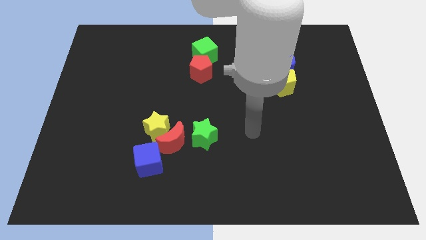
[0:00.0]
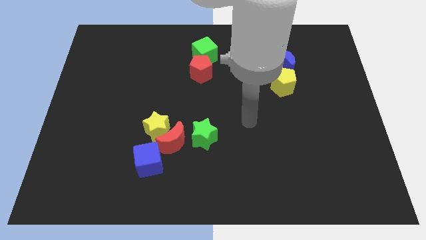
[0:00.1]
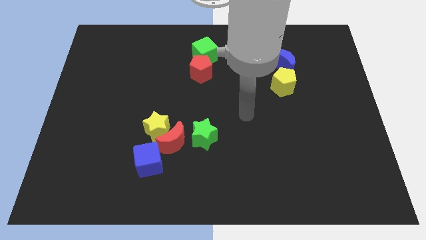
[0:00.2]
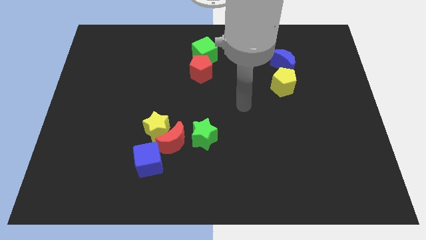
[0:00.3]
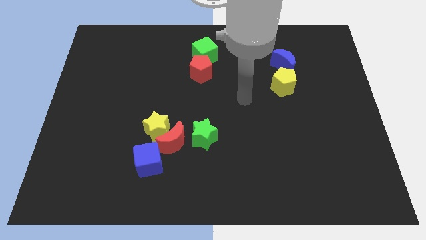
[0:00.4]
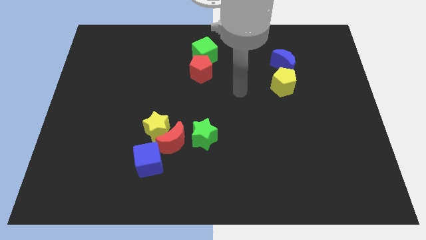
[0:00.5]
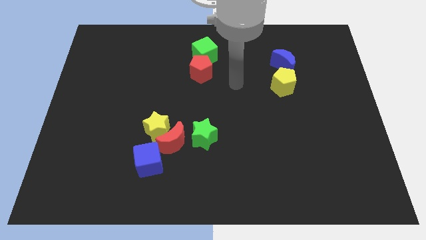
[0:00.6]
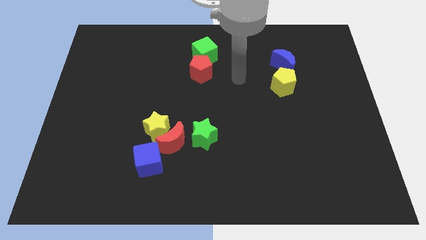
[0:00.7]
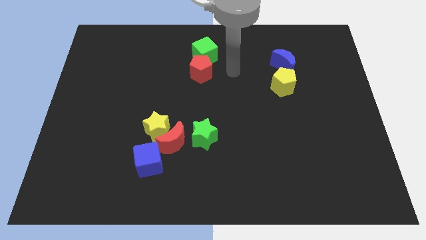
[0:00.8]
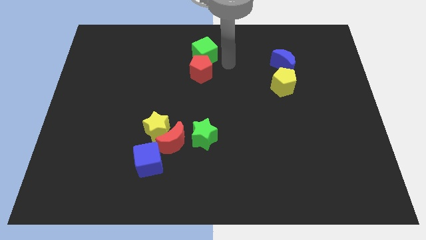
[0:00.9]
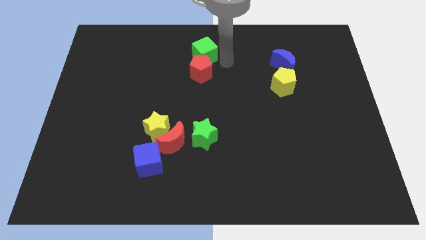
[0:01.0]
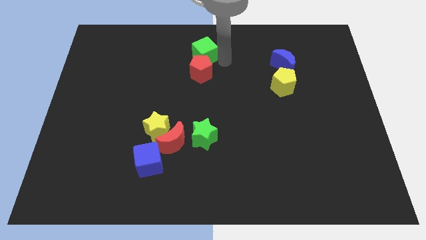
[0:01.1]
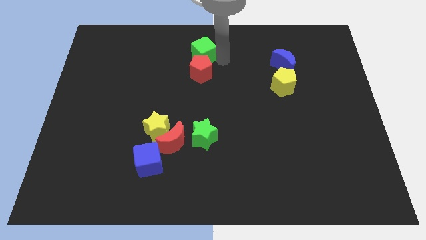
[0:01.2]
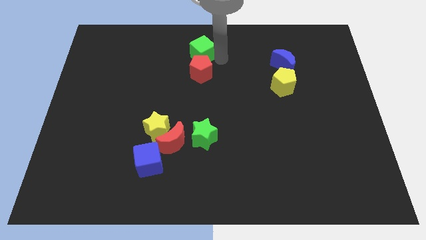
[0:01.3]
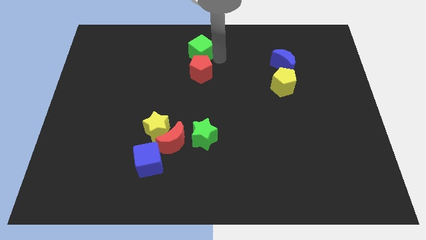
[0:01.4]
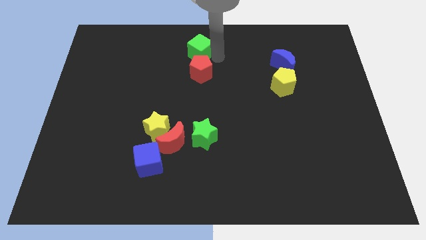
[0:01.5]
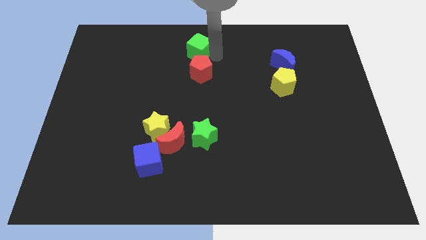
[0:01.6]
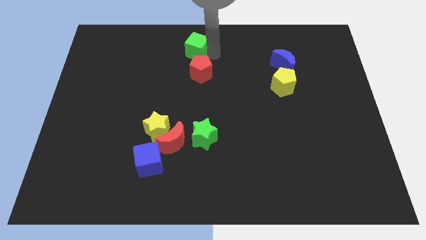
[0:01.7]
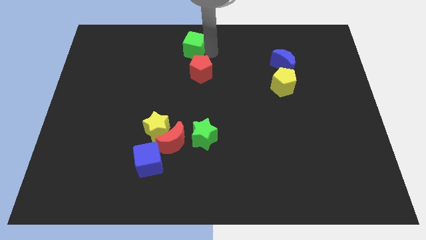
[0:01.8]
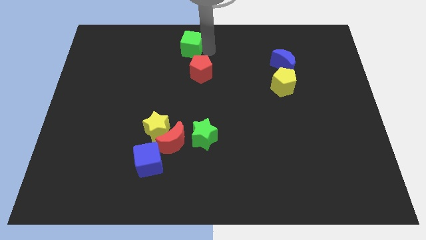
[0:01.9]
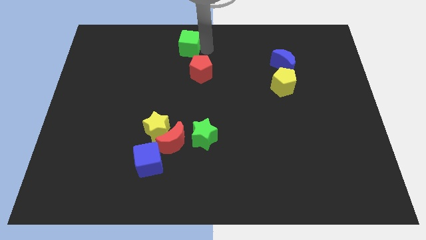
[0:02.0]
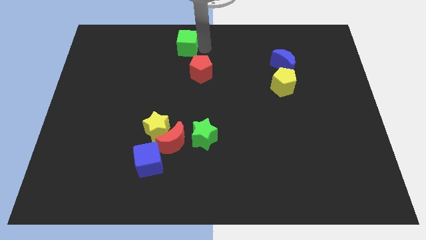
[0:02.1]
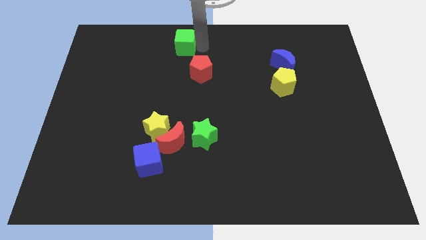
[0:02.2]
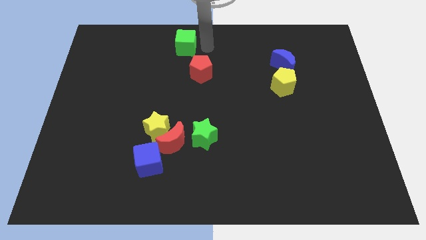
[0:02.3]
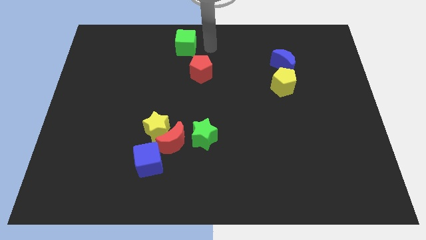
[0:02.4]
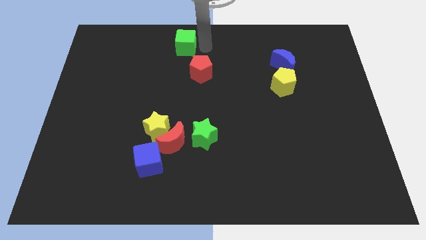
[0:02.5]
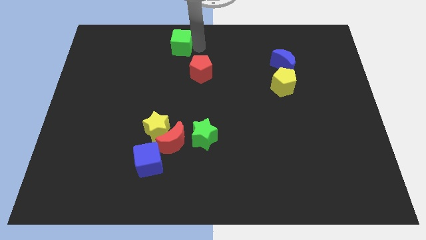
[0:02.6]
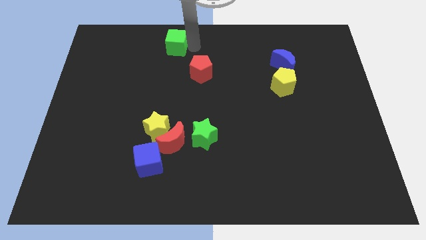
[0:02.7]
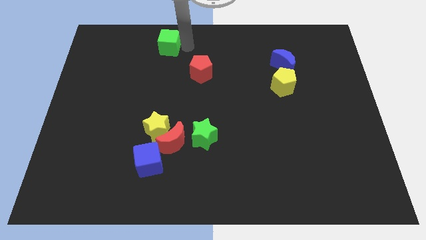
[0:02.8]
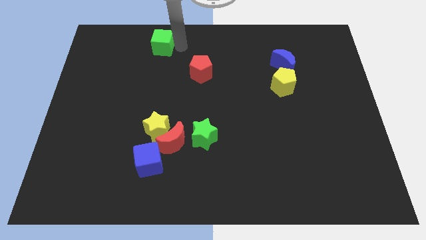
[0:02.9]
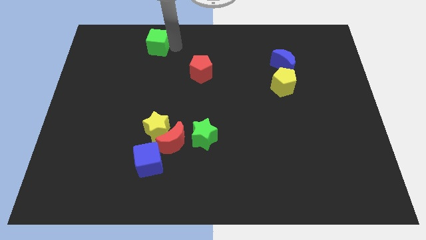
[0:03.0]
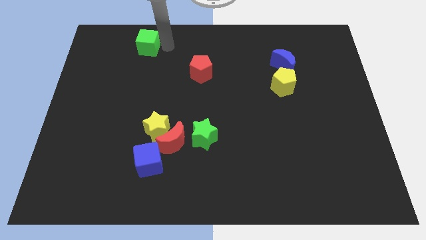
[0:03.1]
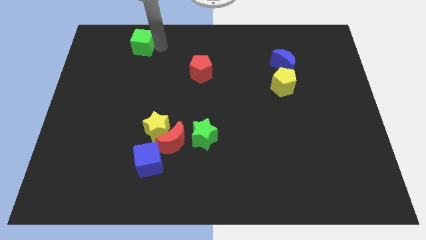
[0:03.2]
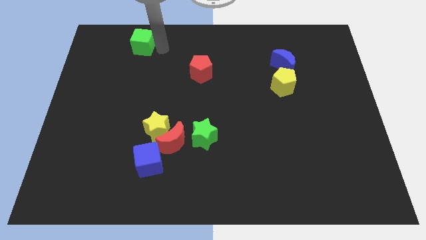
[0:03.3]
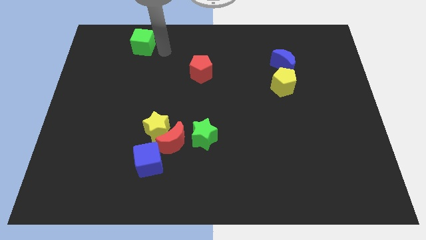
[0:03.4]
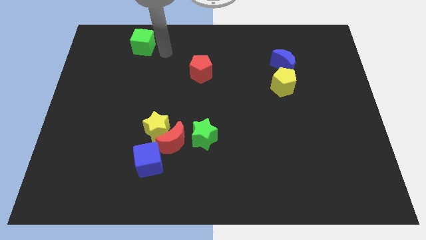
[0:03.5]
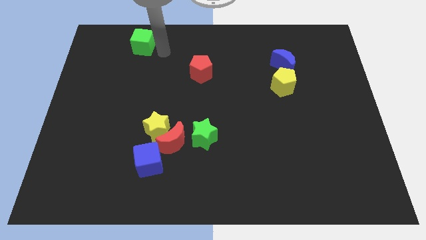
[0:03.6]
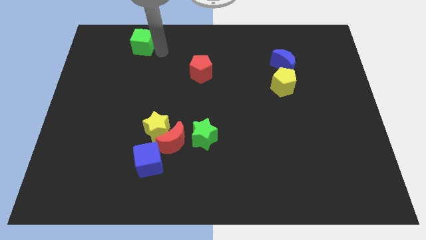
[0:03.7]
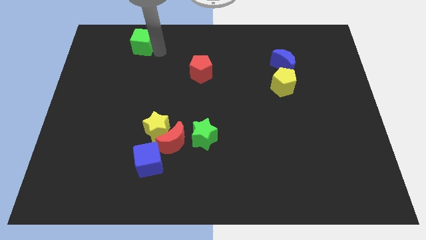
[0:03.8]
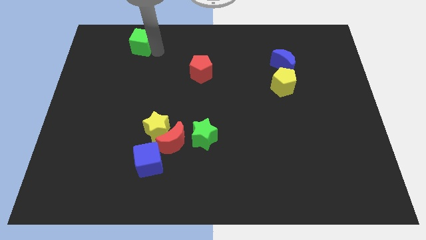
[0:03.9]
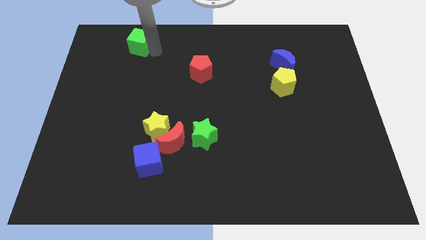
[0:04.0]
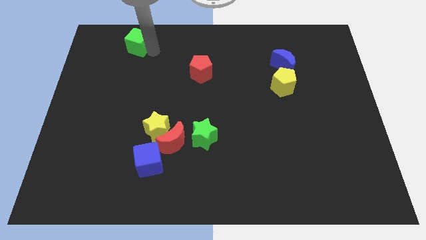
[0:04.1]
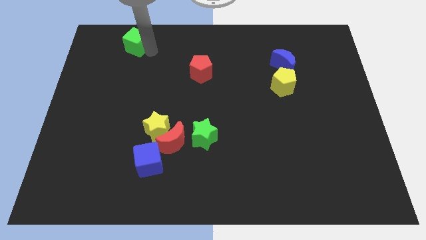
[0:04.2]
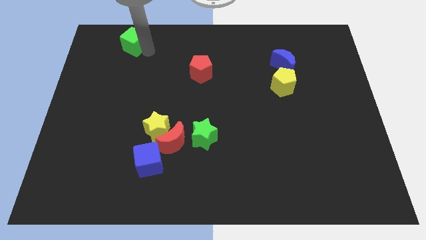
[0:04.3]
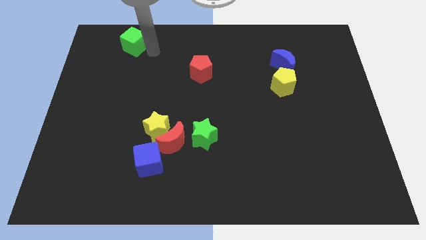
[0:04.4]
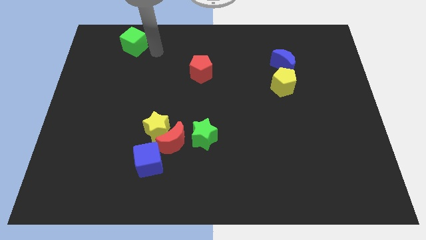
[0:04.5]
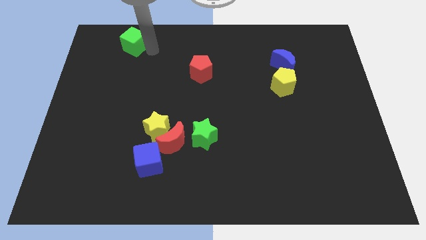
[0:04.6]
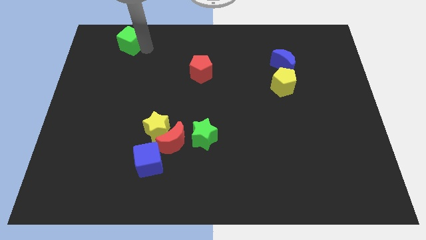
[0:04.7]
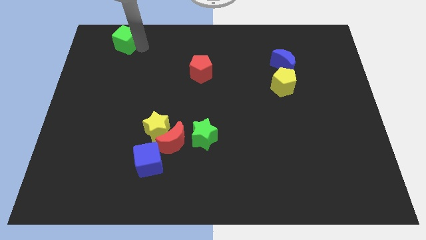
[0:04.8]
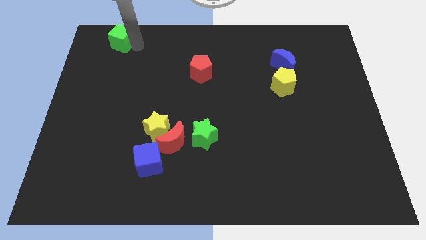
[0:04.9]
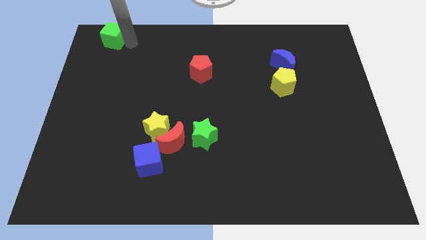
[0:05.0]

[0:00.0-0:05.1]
move the green cube to the top left corner

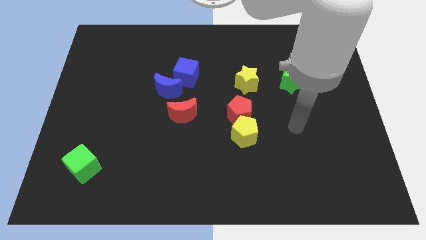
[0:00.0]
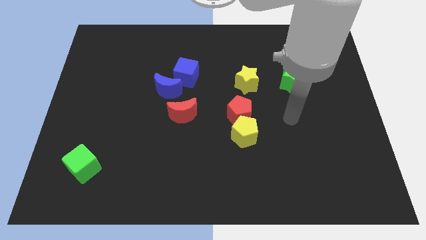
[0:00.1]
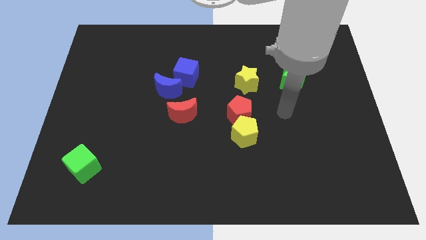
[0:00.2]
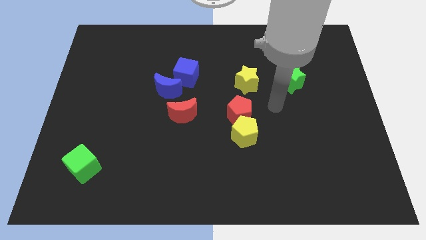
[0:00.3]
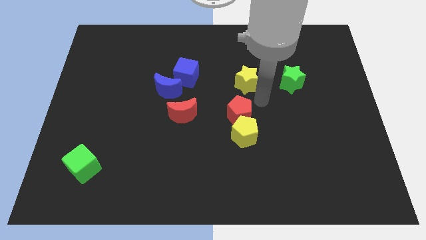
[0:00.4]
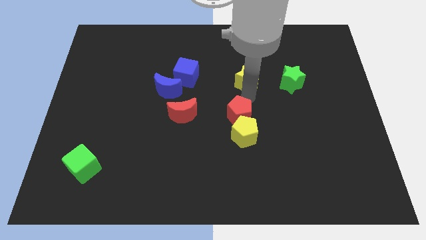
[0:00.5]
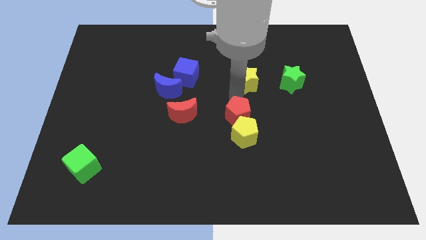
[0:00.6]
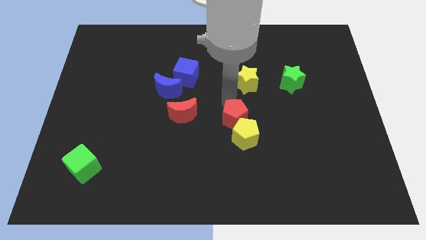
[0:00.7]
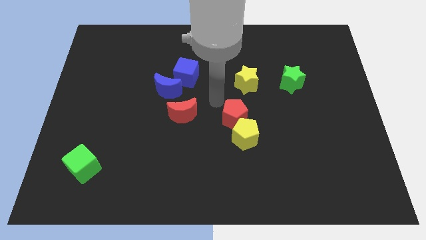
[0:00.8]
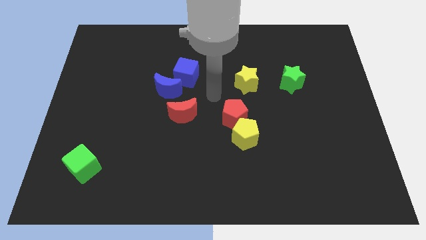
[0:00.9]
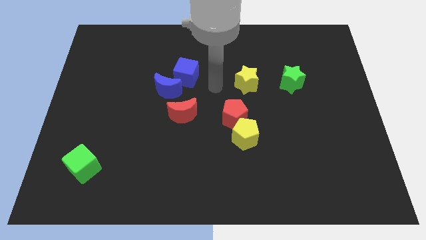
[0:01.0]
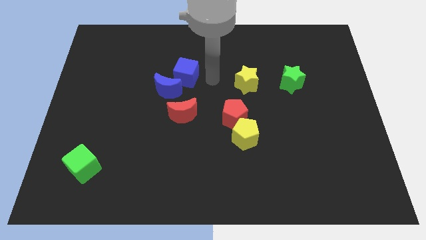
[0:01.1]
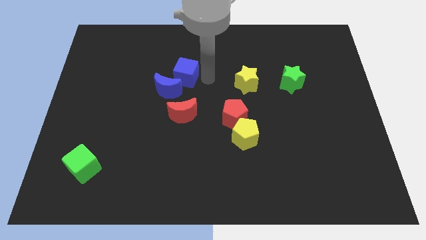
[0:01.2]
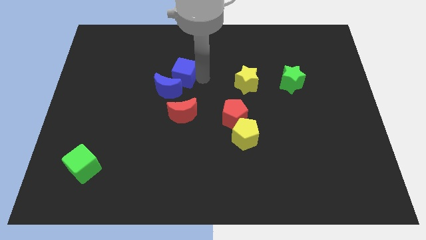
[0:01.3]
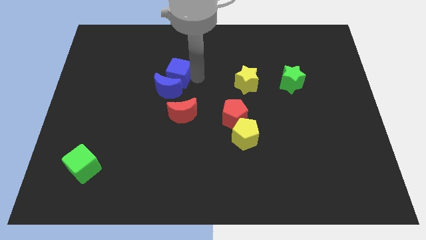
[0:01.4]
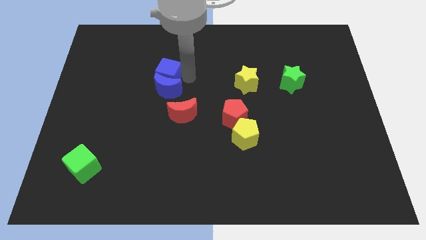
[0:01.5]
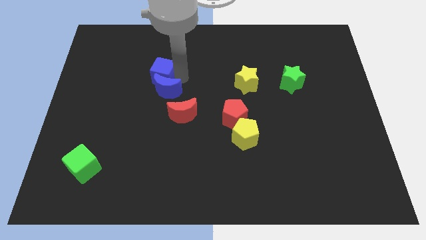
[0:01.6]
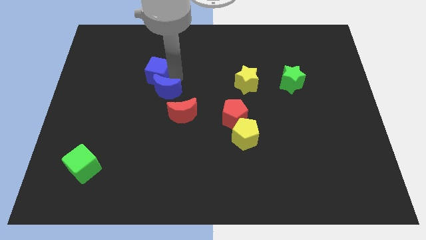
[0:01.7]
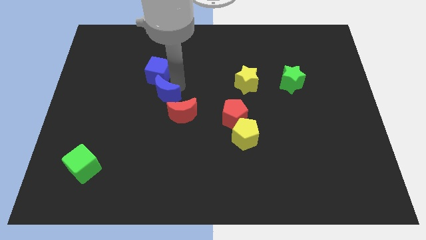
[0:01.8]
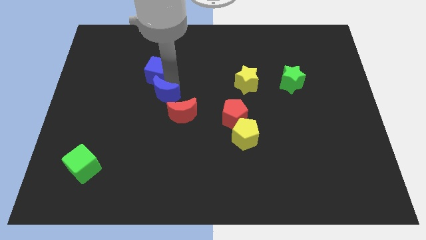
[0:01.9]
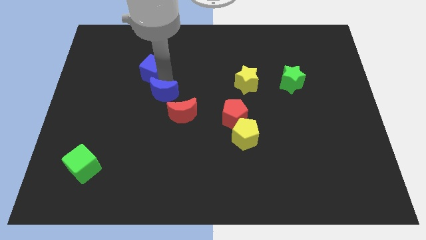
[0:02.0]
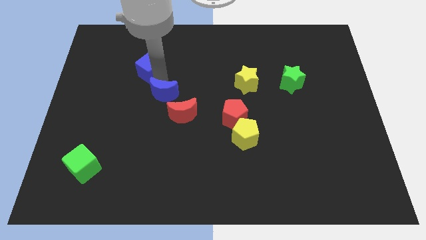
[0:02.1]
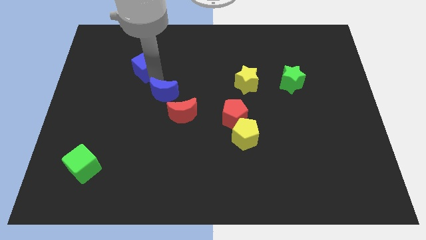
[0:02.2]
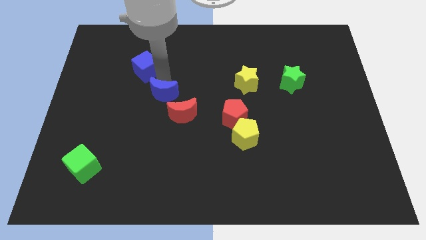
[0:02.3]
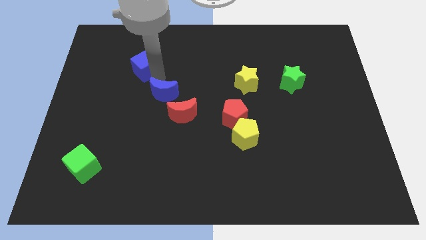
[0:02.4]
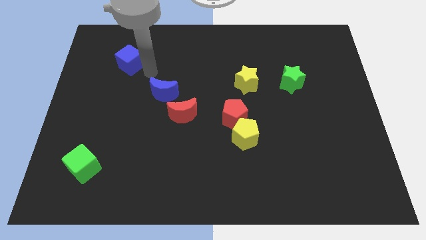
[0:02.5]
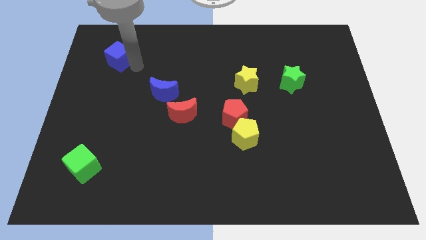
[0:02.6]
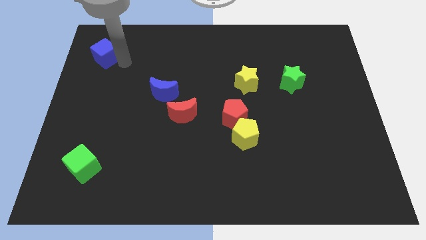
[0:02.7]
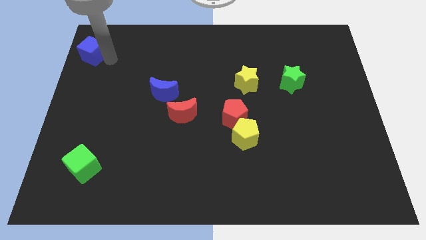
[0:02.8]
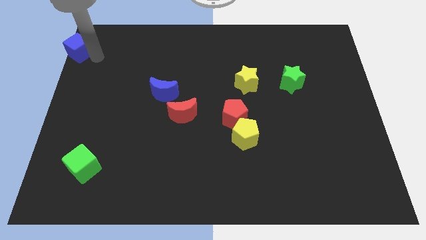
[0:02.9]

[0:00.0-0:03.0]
push the blue cube to the top left
